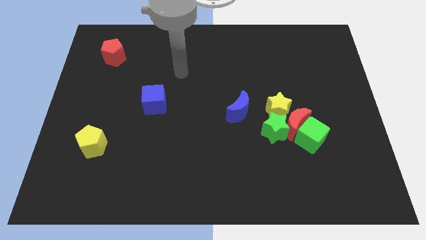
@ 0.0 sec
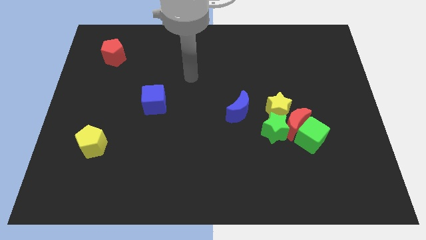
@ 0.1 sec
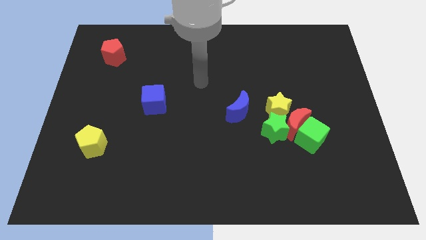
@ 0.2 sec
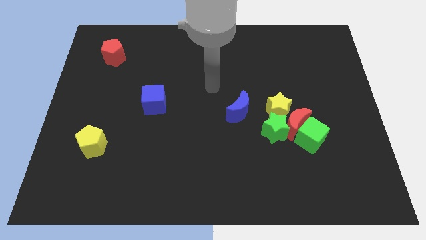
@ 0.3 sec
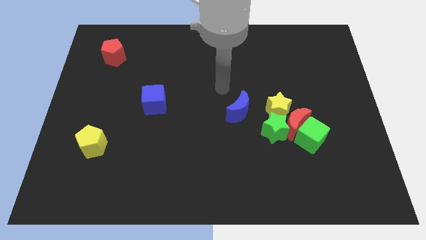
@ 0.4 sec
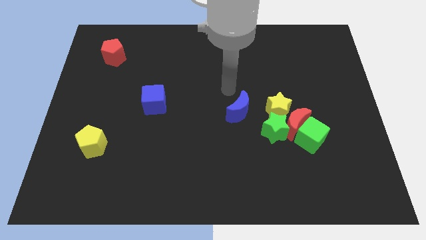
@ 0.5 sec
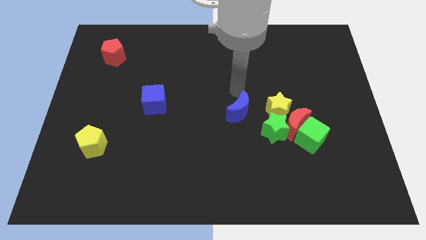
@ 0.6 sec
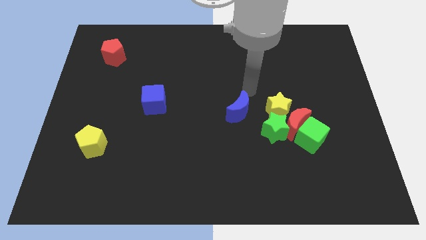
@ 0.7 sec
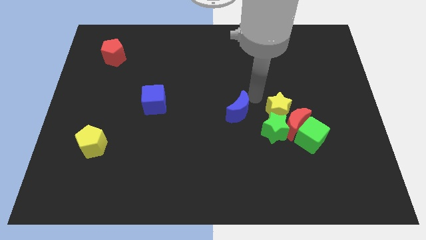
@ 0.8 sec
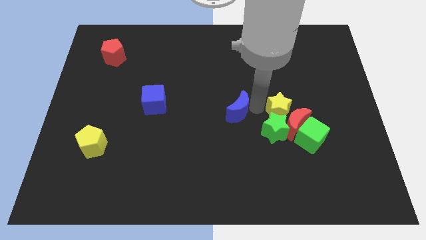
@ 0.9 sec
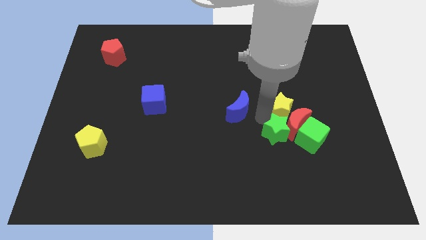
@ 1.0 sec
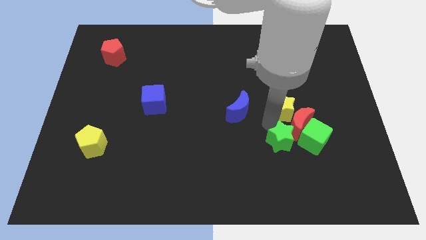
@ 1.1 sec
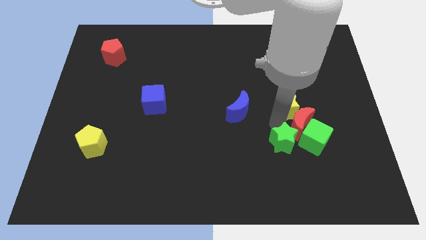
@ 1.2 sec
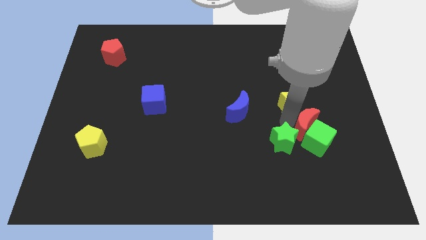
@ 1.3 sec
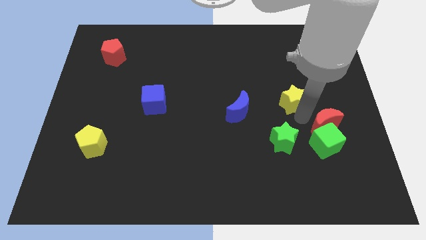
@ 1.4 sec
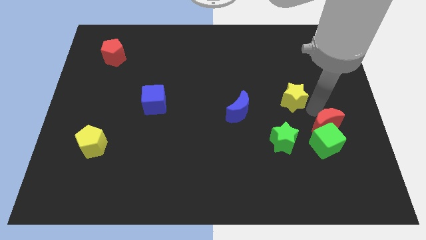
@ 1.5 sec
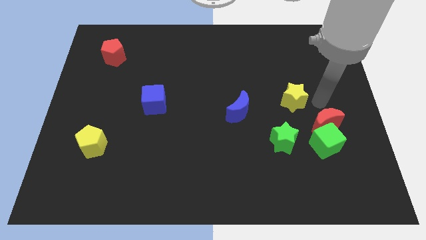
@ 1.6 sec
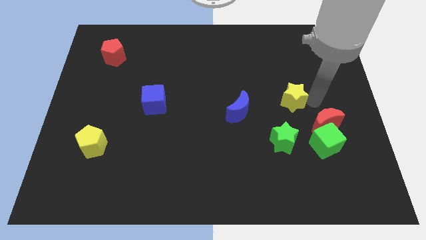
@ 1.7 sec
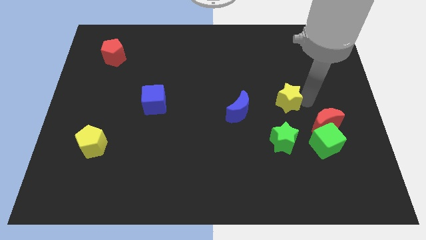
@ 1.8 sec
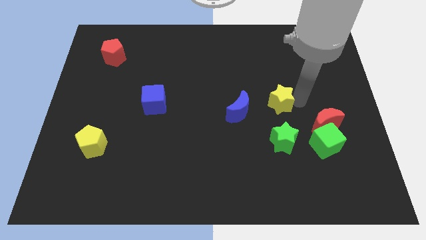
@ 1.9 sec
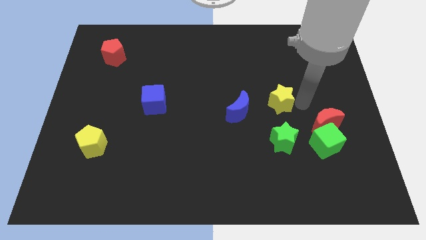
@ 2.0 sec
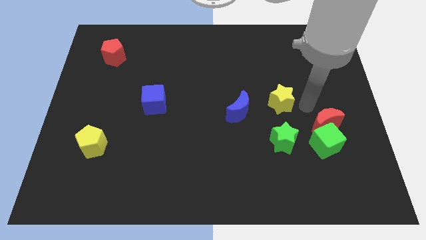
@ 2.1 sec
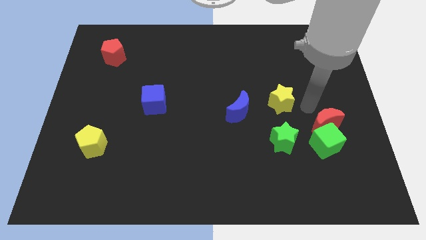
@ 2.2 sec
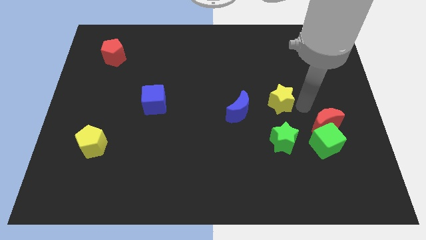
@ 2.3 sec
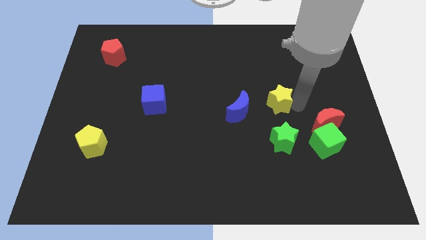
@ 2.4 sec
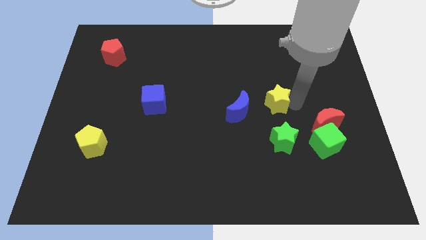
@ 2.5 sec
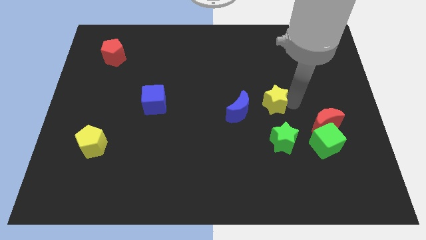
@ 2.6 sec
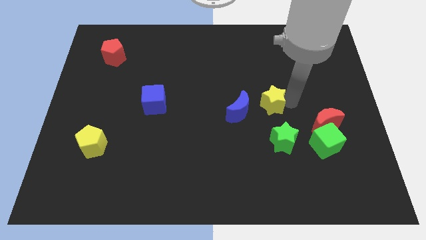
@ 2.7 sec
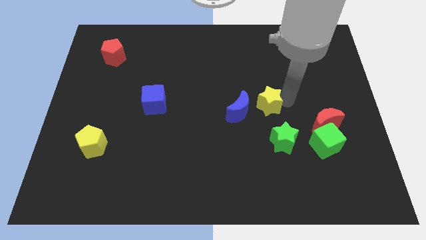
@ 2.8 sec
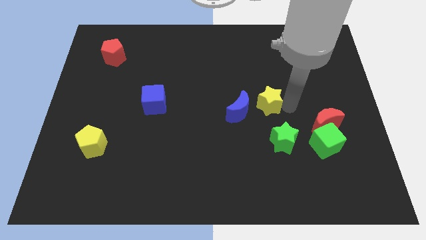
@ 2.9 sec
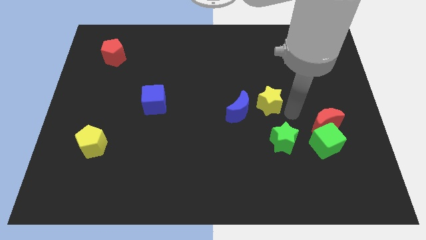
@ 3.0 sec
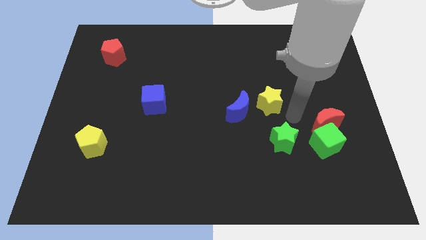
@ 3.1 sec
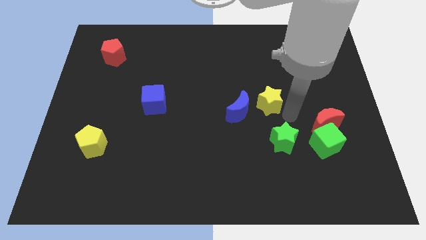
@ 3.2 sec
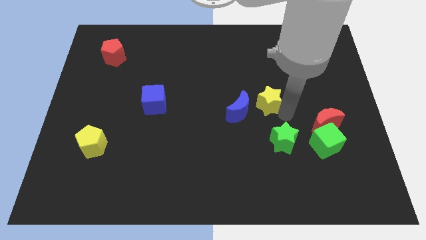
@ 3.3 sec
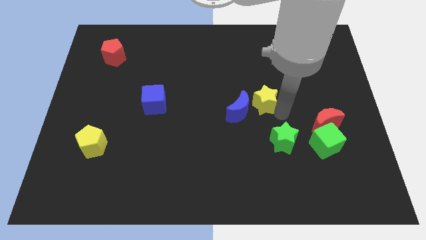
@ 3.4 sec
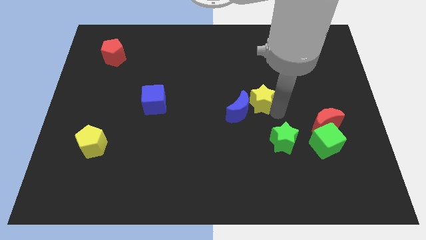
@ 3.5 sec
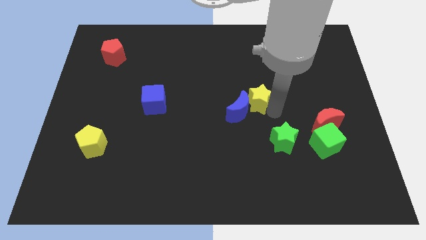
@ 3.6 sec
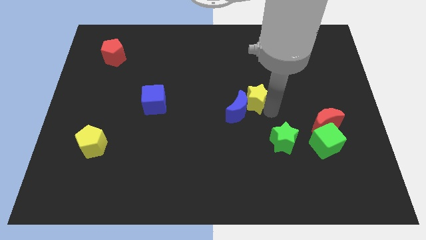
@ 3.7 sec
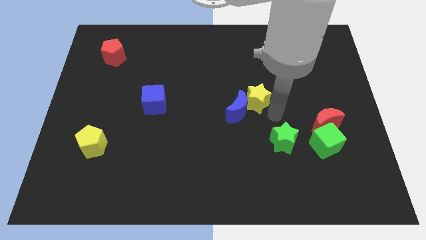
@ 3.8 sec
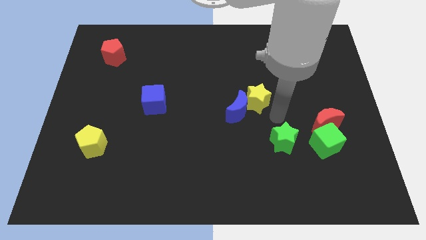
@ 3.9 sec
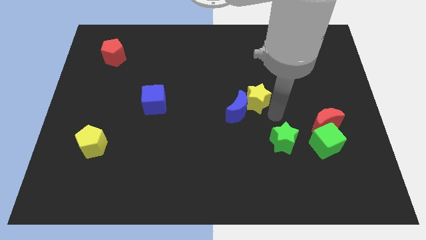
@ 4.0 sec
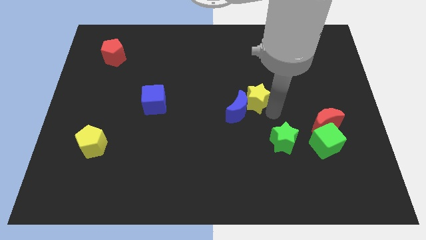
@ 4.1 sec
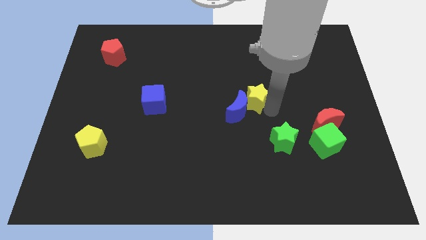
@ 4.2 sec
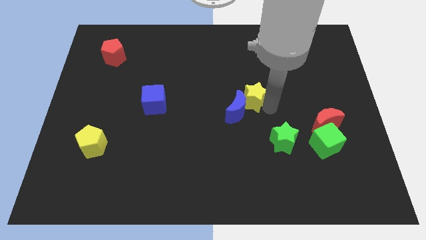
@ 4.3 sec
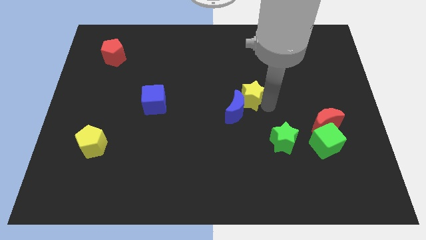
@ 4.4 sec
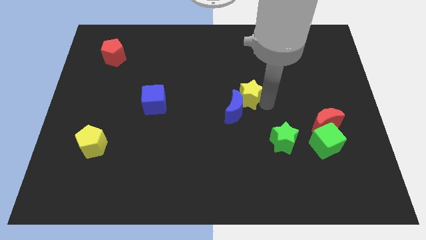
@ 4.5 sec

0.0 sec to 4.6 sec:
slightly push the yellow star diagonally up and left

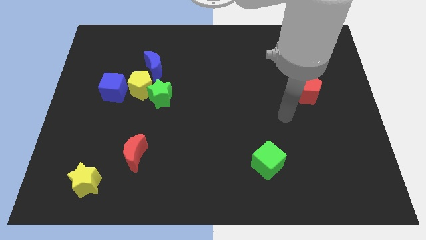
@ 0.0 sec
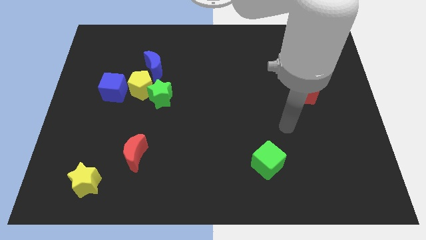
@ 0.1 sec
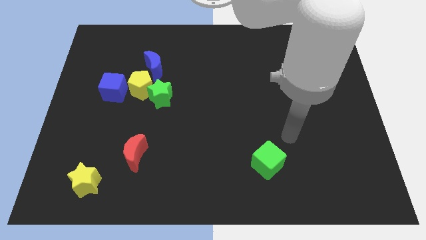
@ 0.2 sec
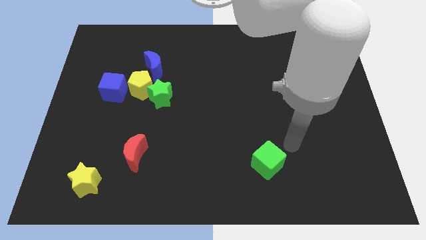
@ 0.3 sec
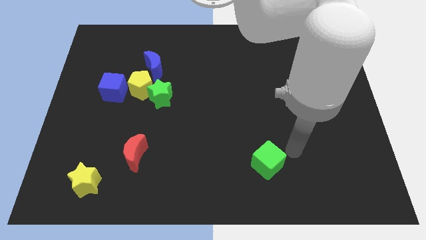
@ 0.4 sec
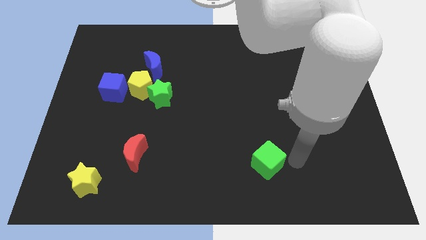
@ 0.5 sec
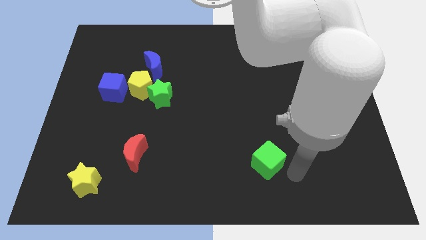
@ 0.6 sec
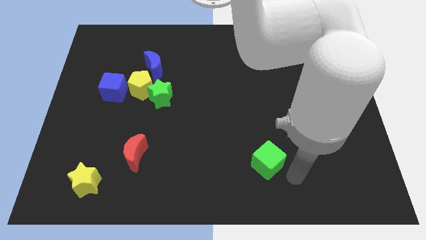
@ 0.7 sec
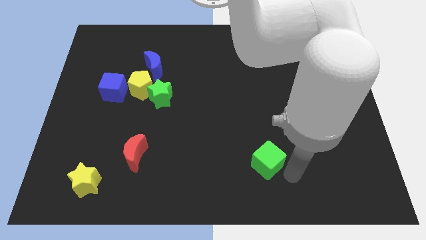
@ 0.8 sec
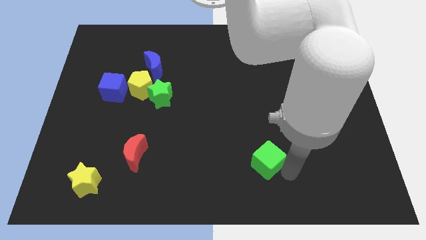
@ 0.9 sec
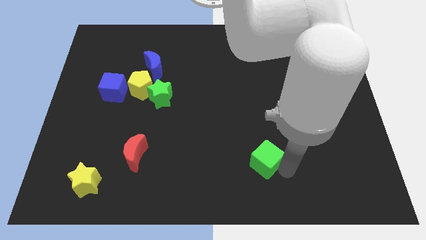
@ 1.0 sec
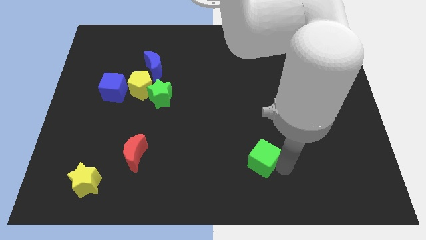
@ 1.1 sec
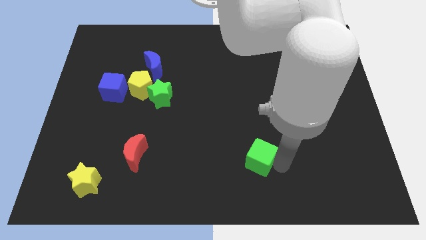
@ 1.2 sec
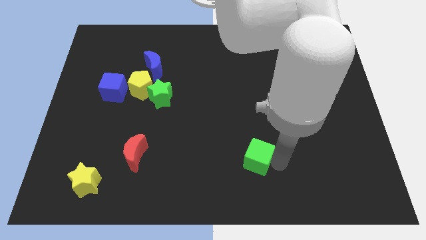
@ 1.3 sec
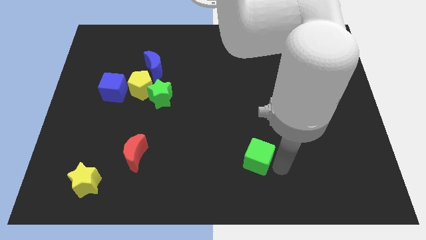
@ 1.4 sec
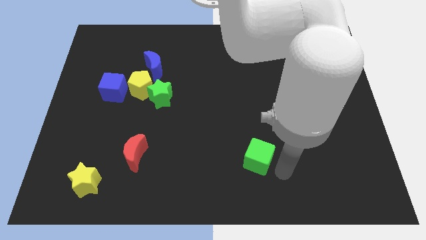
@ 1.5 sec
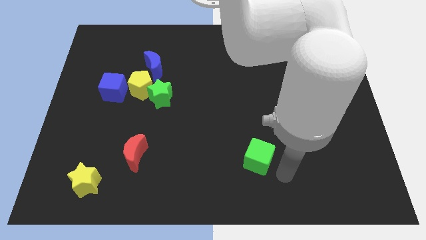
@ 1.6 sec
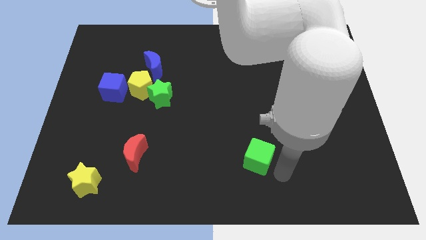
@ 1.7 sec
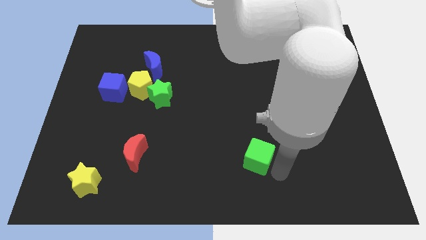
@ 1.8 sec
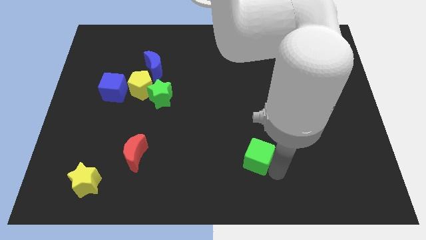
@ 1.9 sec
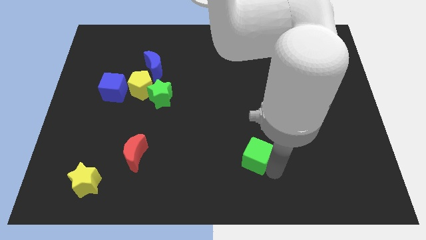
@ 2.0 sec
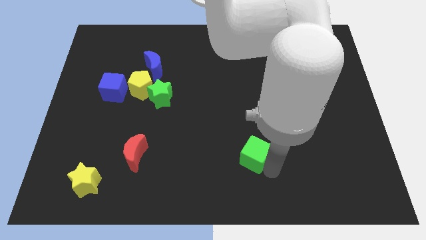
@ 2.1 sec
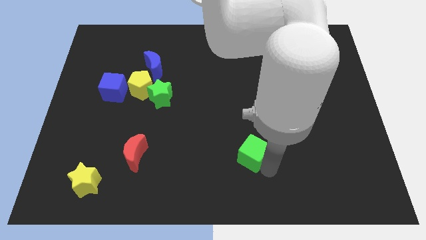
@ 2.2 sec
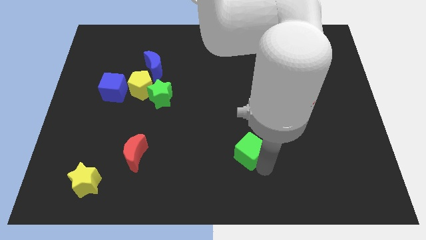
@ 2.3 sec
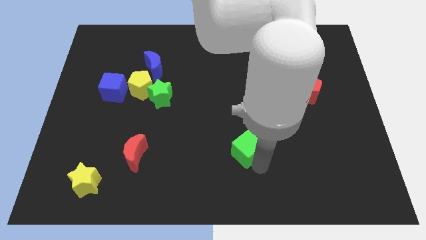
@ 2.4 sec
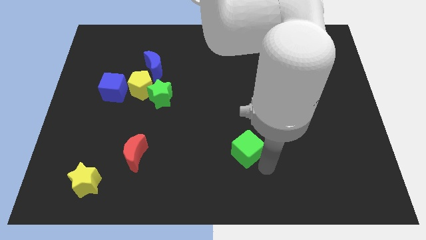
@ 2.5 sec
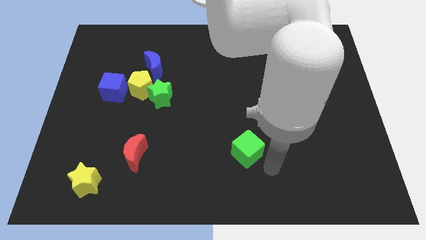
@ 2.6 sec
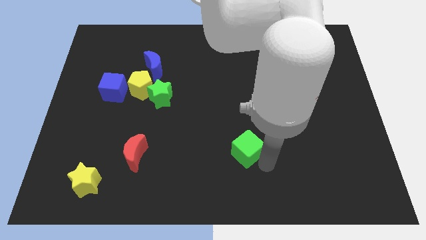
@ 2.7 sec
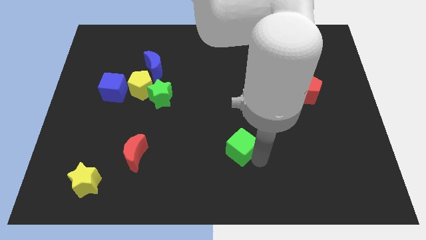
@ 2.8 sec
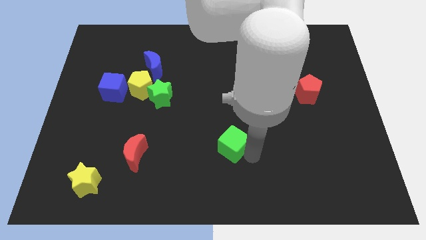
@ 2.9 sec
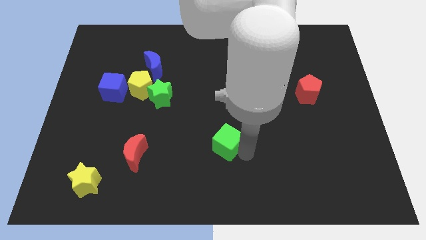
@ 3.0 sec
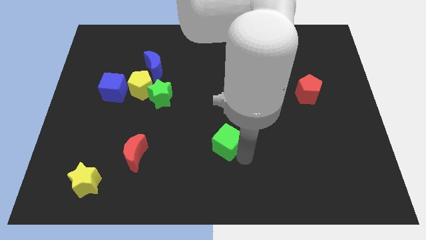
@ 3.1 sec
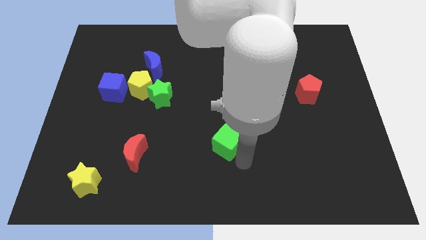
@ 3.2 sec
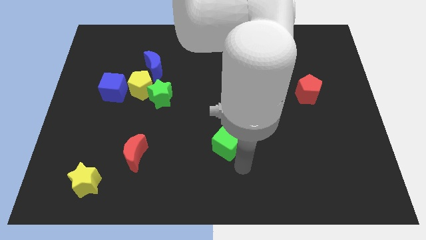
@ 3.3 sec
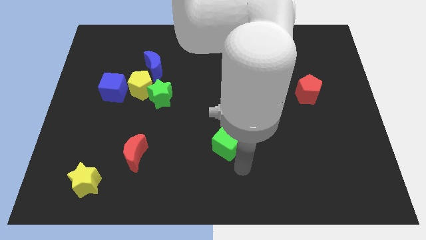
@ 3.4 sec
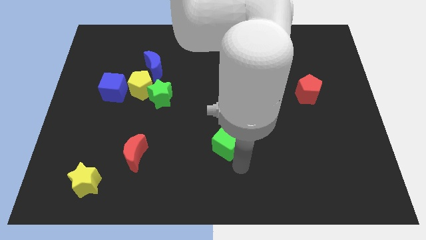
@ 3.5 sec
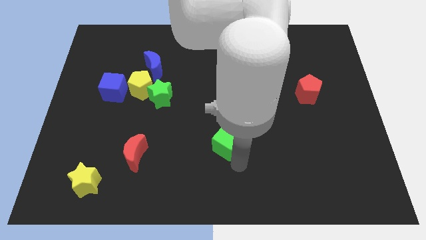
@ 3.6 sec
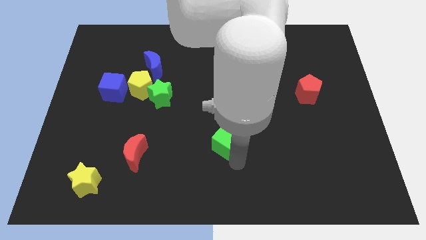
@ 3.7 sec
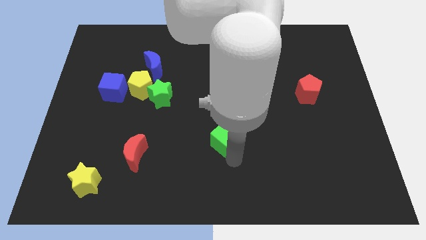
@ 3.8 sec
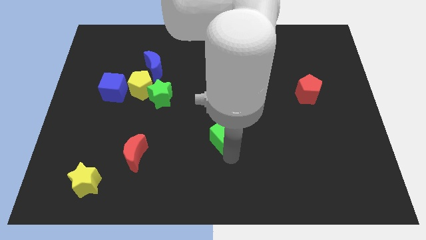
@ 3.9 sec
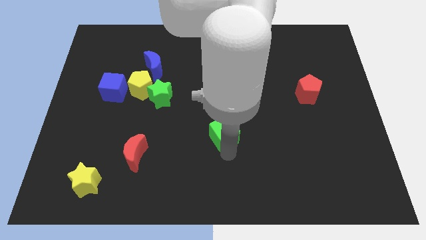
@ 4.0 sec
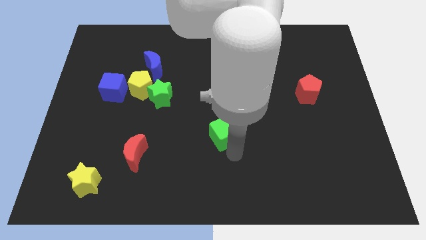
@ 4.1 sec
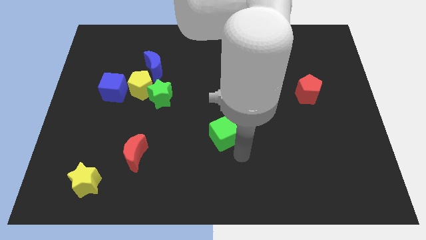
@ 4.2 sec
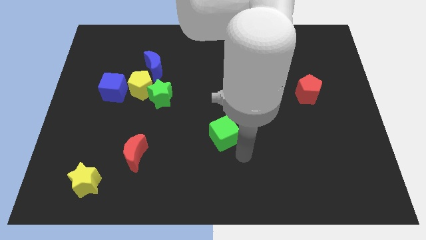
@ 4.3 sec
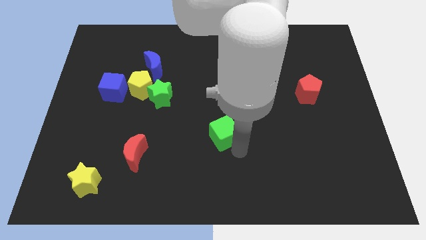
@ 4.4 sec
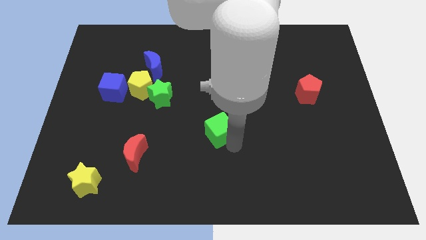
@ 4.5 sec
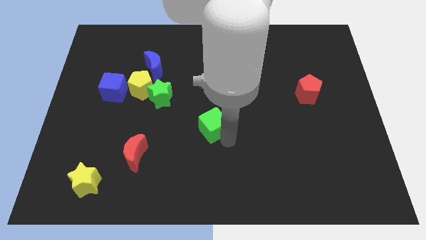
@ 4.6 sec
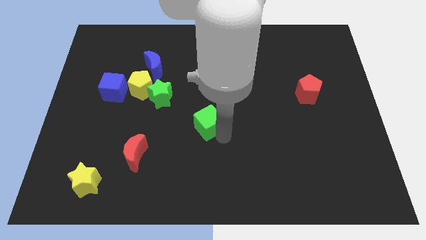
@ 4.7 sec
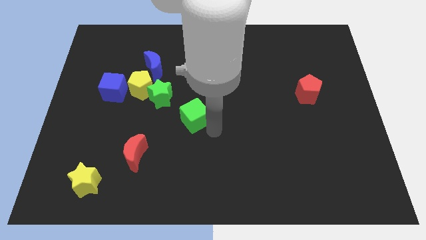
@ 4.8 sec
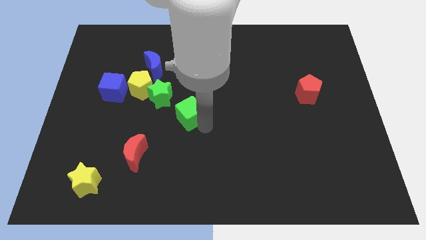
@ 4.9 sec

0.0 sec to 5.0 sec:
slide the green cube upwards and to the left diagonally
